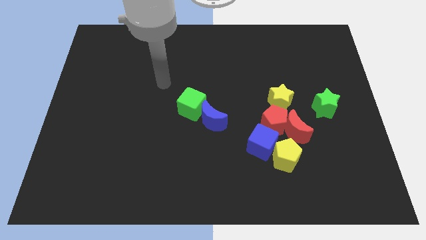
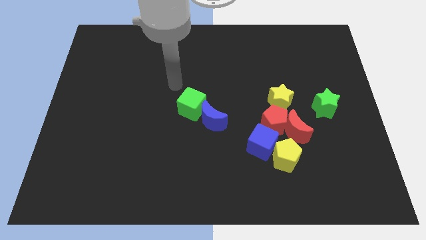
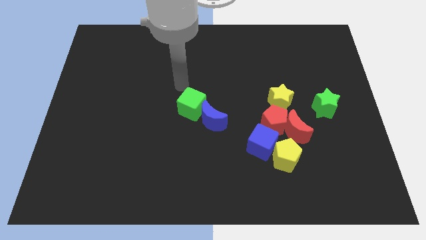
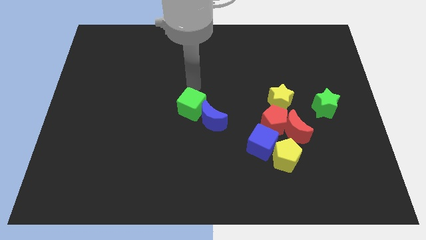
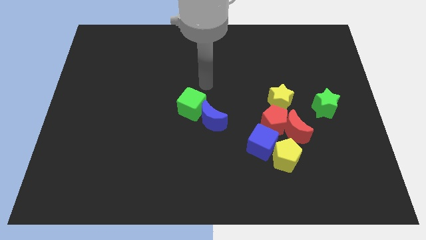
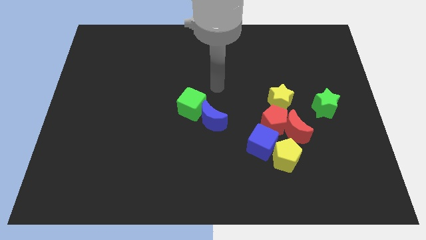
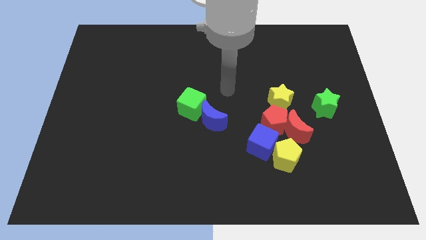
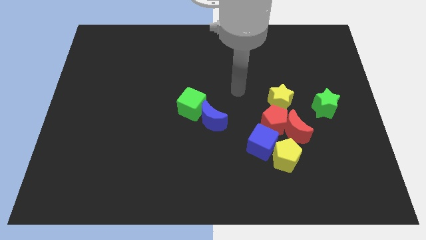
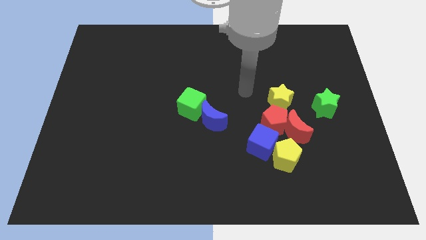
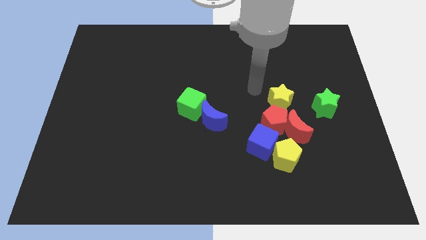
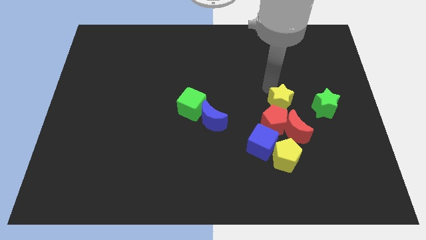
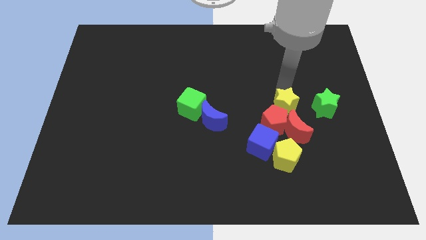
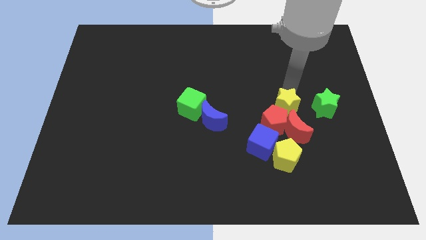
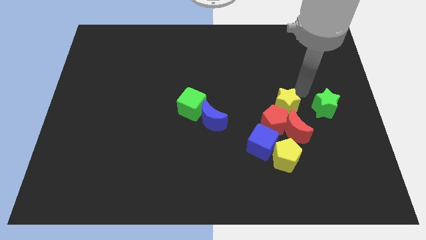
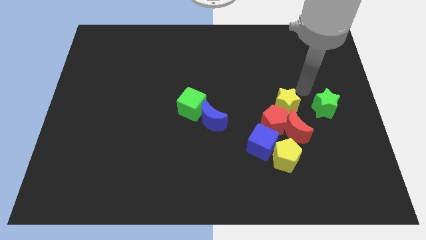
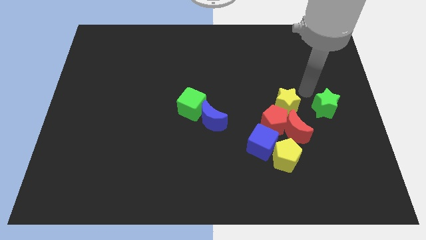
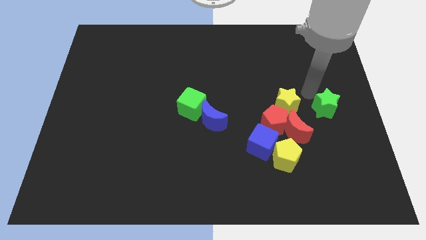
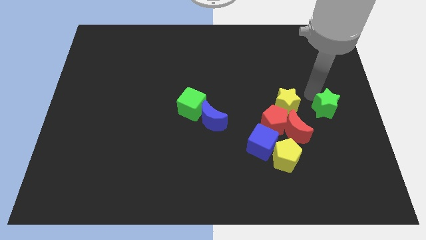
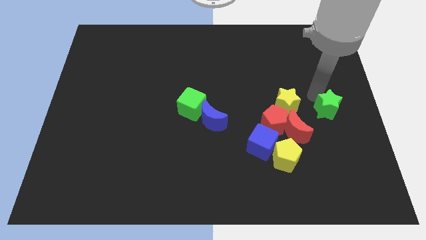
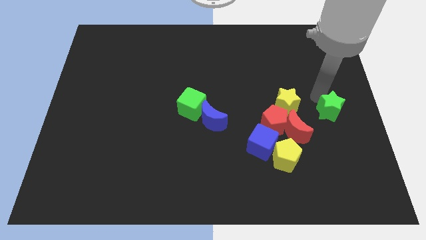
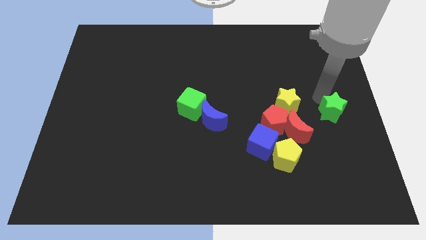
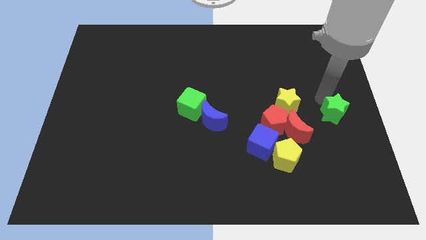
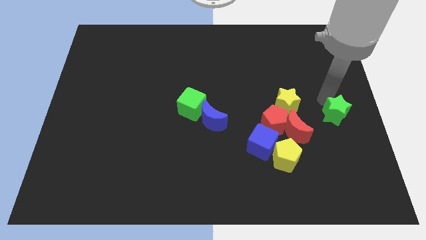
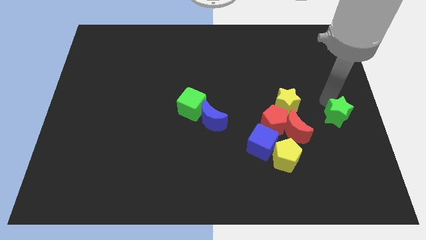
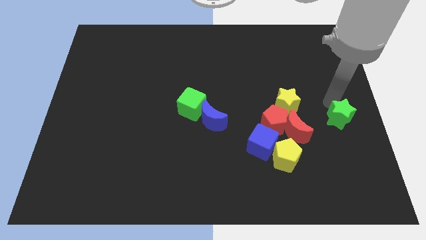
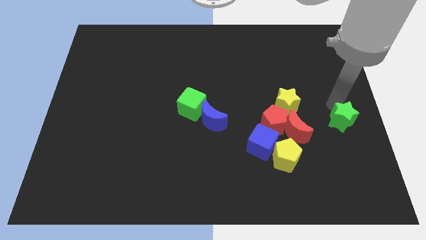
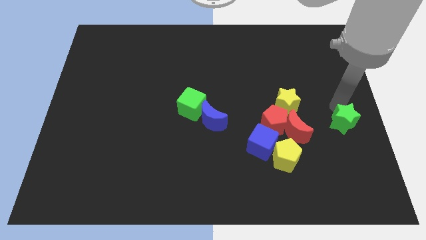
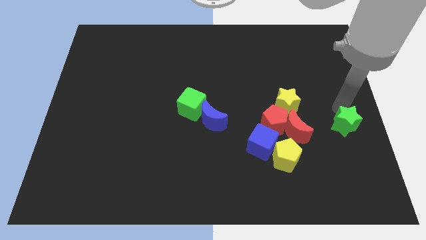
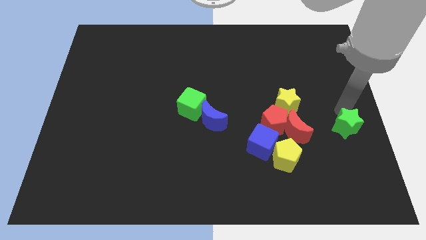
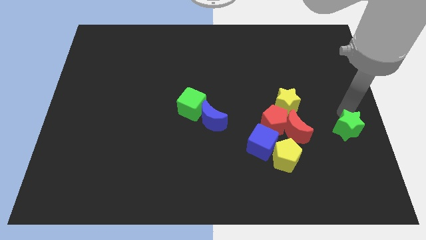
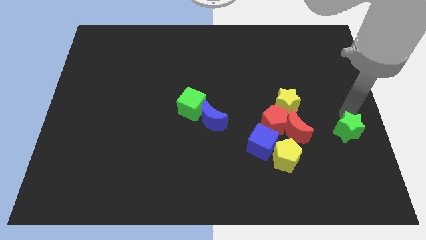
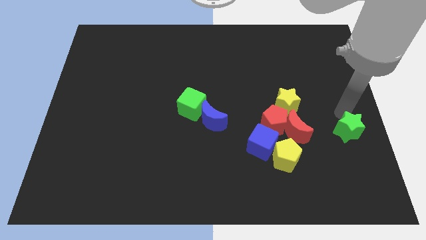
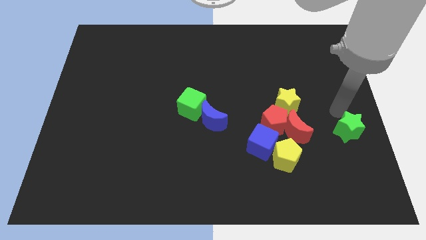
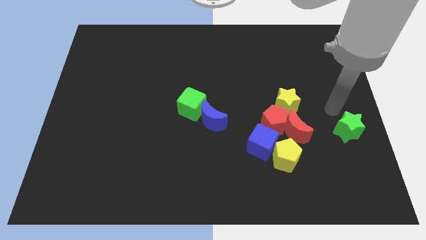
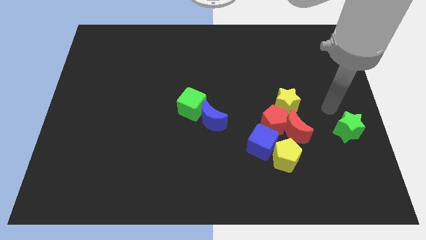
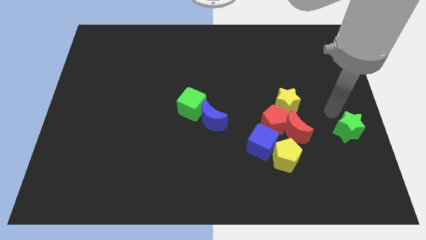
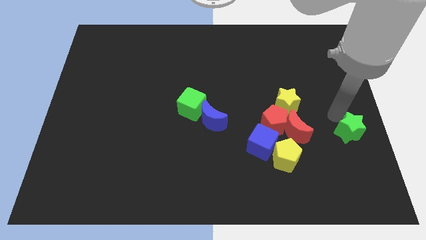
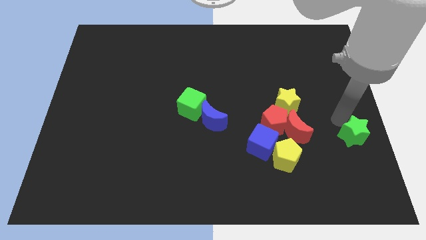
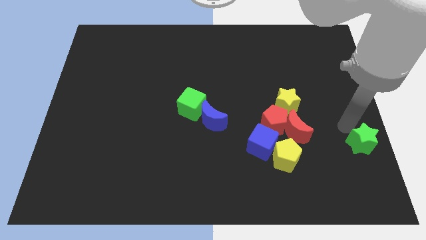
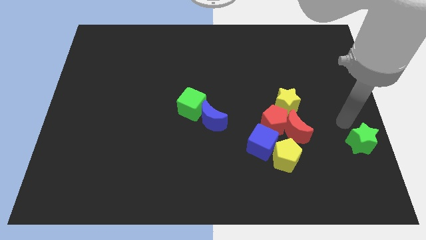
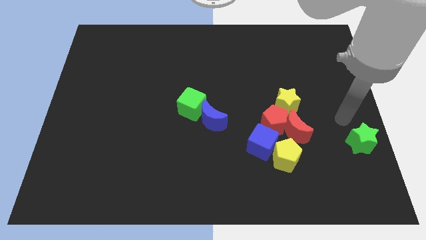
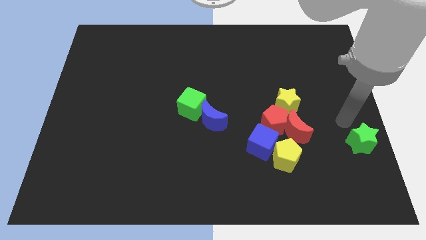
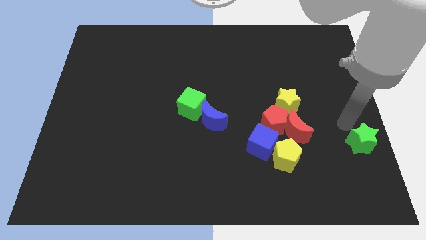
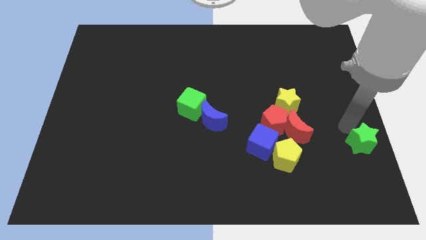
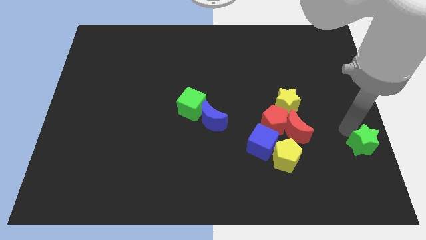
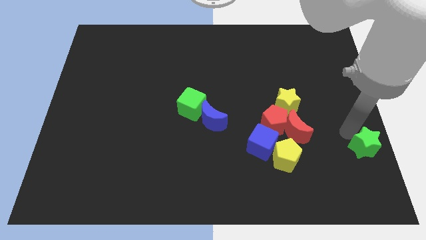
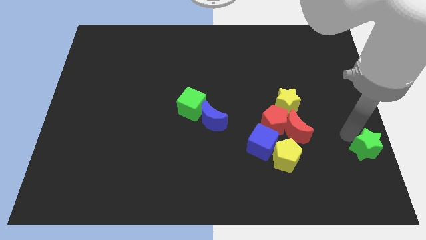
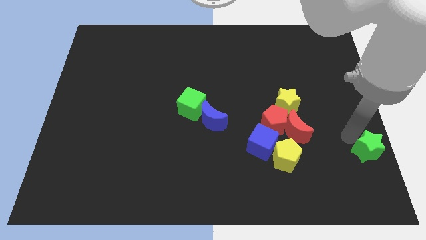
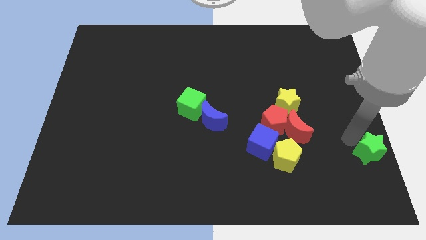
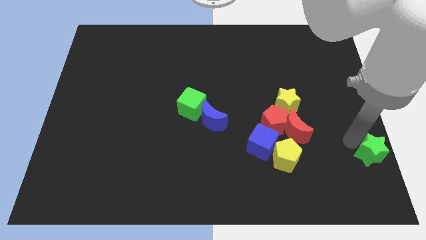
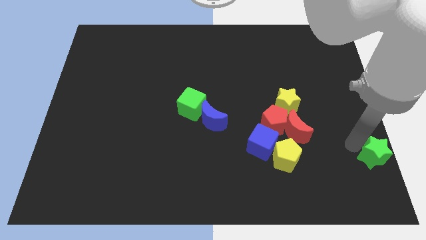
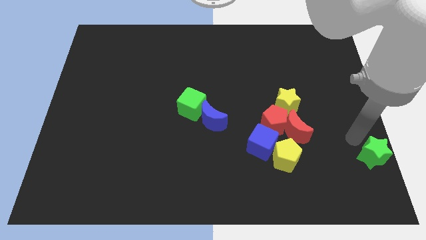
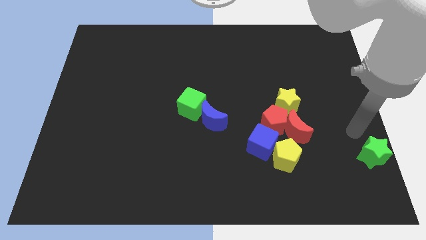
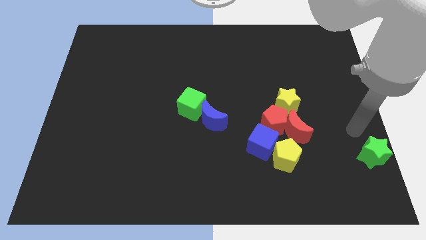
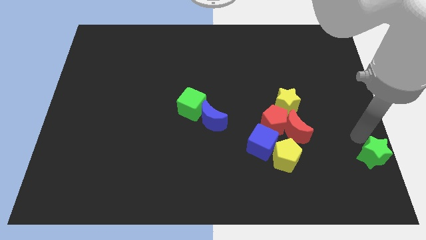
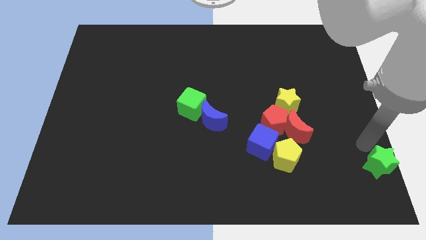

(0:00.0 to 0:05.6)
put the green star to the lower right corner
